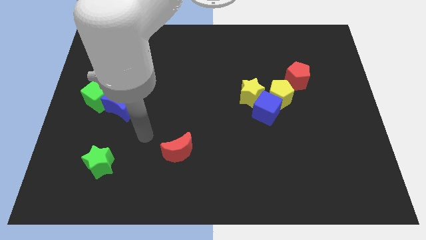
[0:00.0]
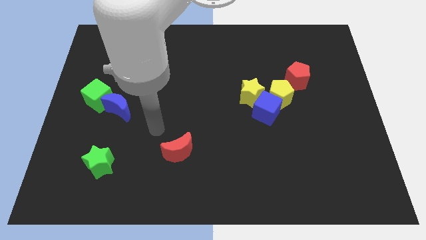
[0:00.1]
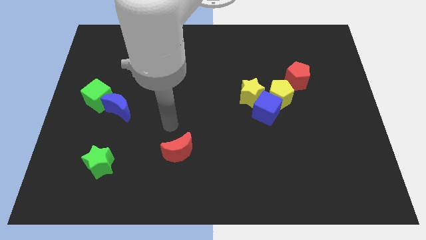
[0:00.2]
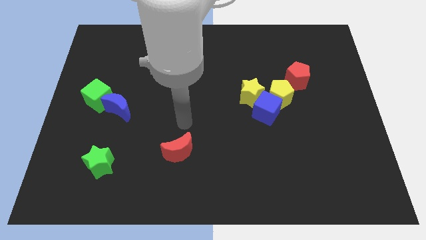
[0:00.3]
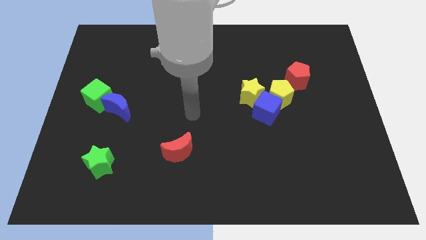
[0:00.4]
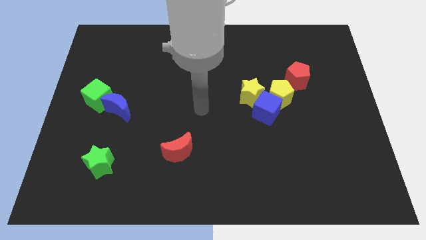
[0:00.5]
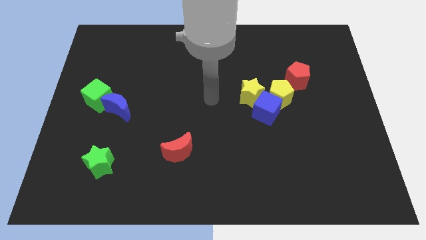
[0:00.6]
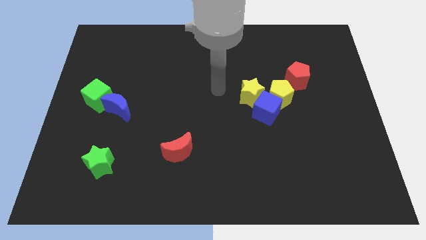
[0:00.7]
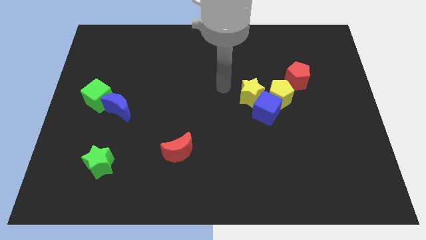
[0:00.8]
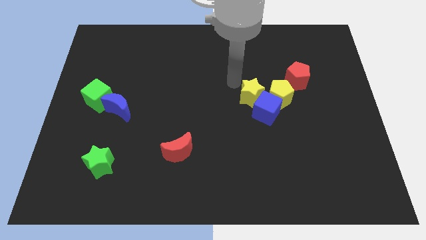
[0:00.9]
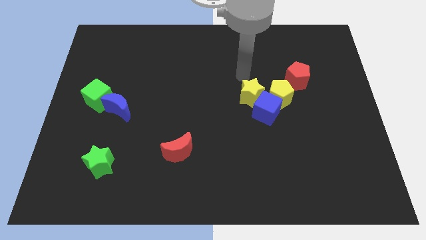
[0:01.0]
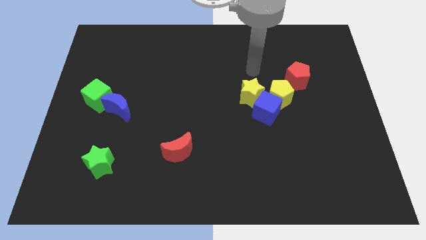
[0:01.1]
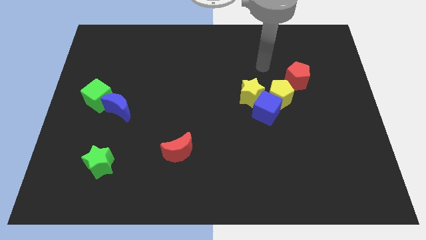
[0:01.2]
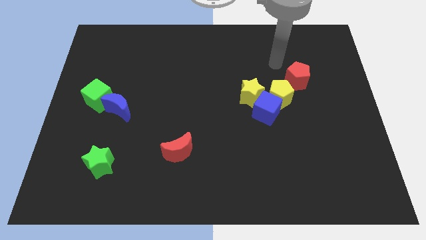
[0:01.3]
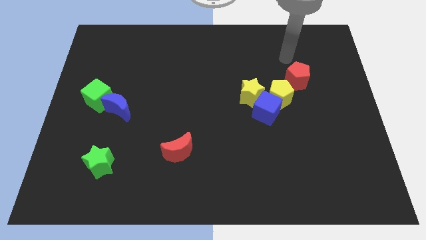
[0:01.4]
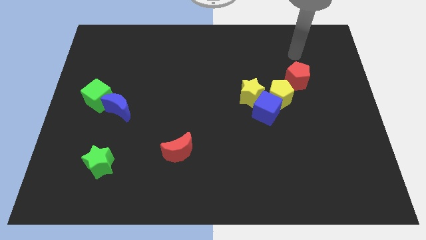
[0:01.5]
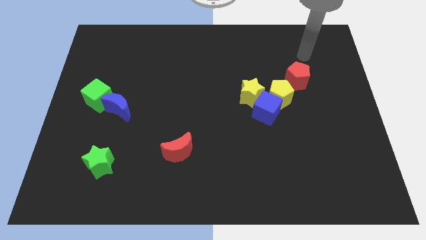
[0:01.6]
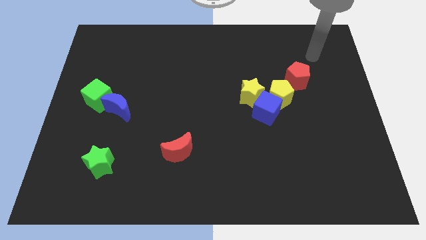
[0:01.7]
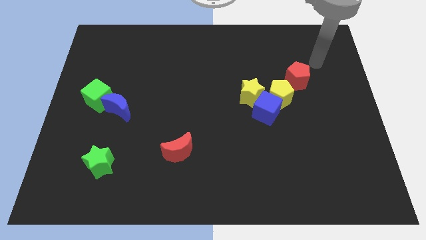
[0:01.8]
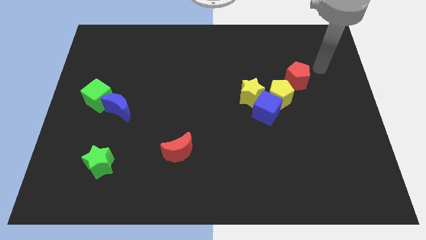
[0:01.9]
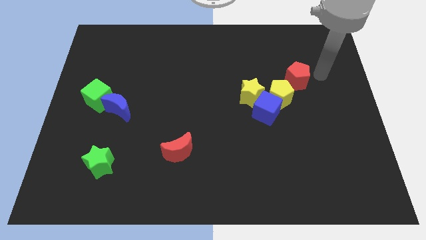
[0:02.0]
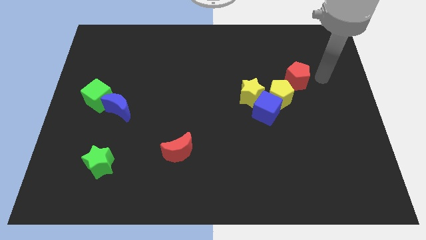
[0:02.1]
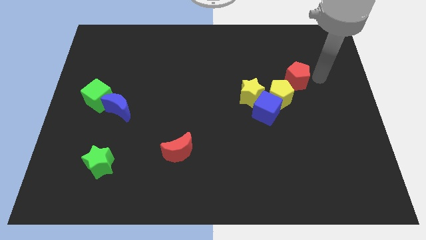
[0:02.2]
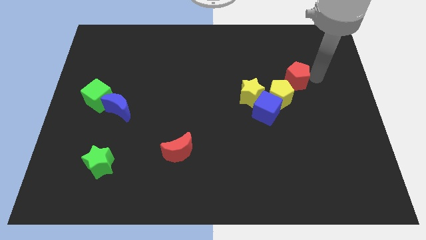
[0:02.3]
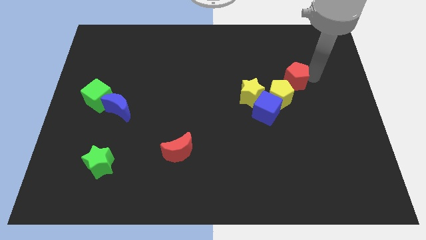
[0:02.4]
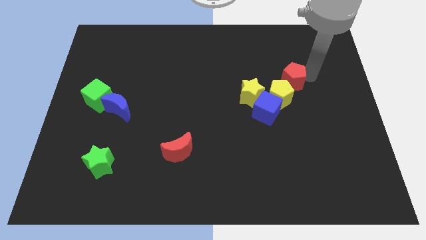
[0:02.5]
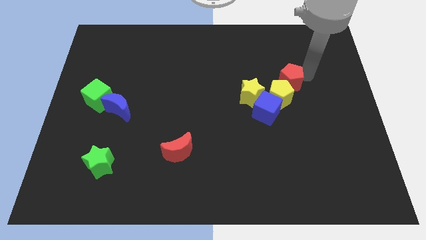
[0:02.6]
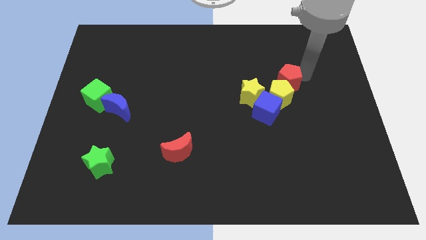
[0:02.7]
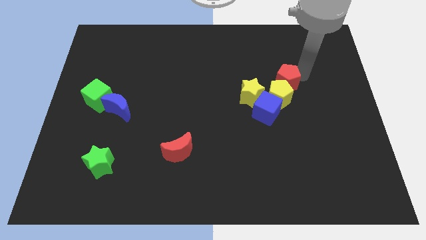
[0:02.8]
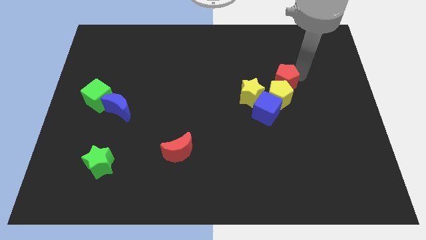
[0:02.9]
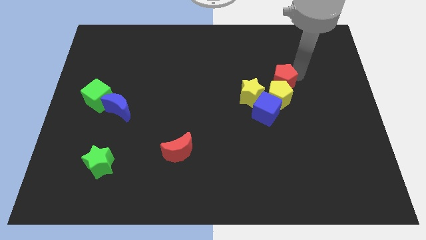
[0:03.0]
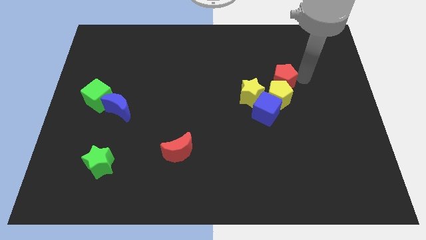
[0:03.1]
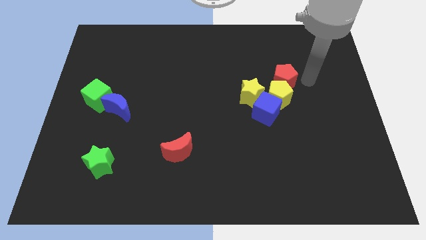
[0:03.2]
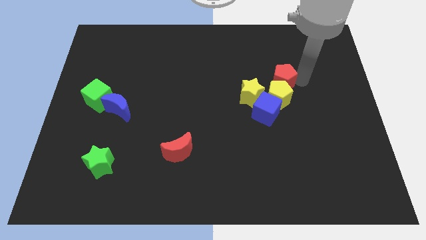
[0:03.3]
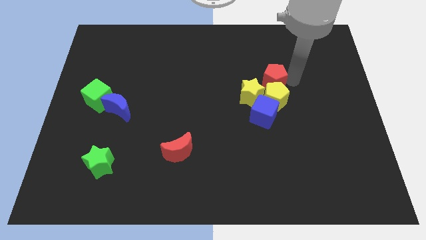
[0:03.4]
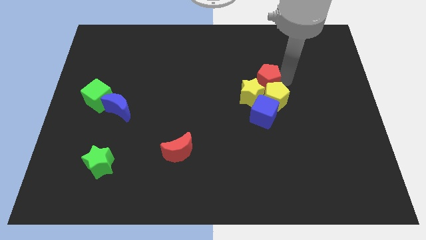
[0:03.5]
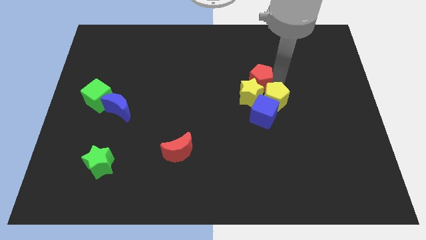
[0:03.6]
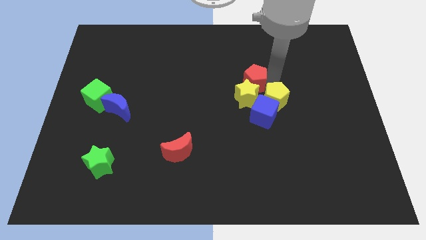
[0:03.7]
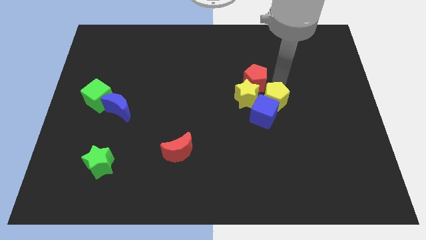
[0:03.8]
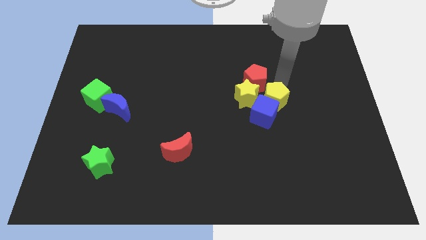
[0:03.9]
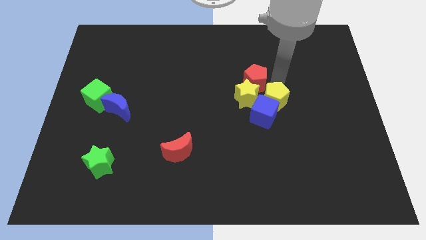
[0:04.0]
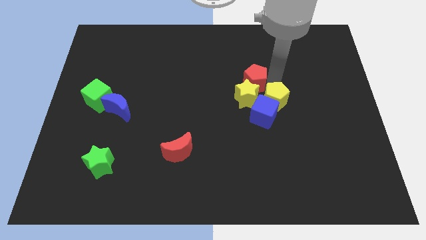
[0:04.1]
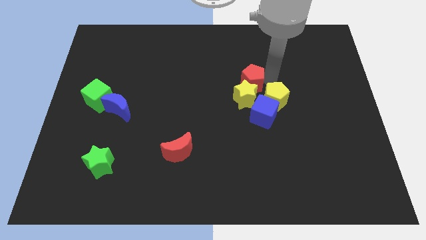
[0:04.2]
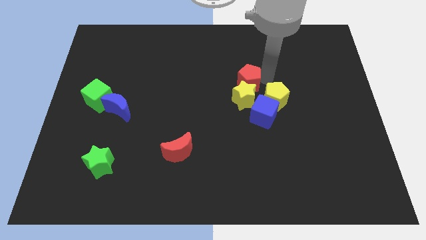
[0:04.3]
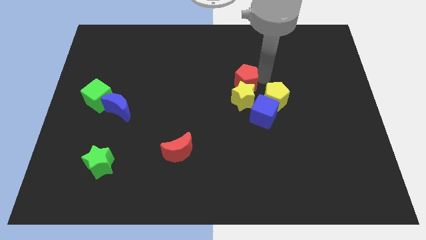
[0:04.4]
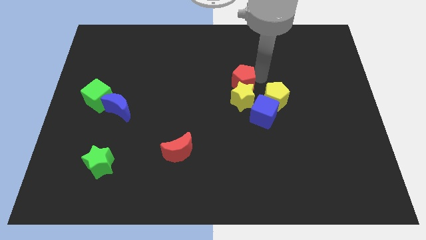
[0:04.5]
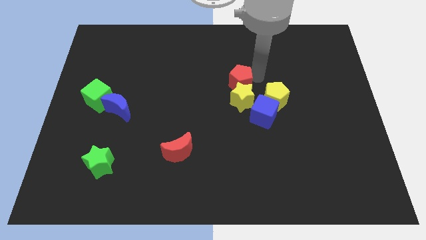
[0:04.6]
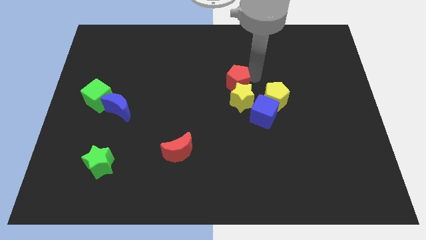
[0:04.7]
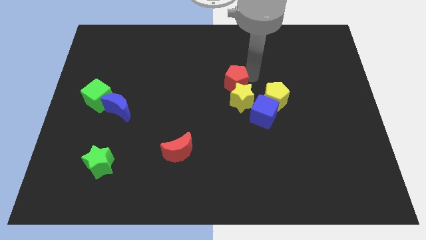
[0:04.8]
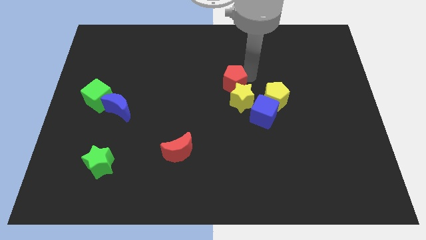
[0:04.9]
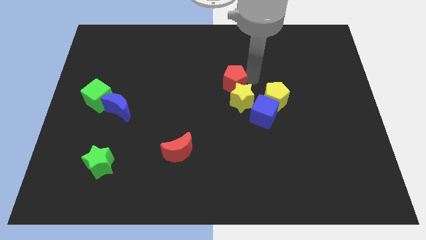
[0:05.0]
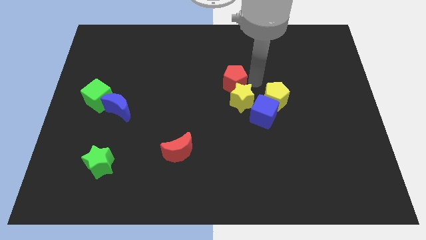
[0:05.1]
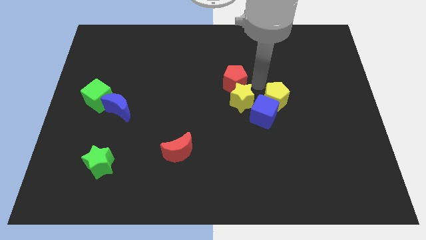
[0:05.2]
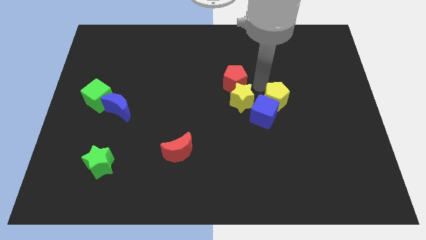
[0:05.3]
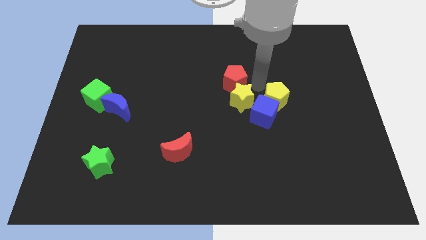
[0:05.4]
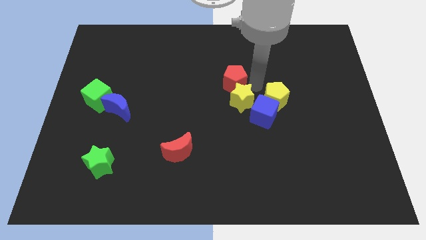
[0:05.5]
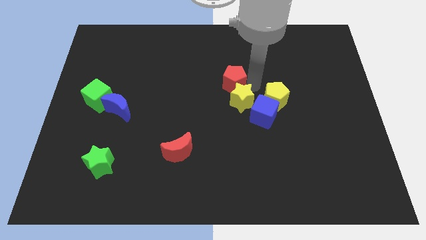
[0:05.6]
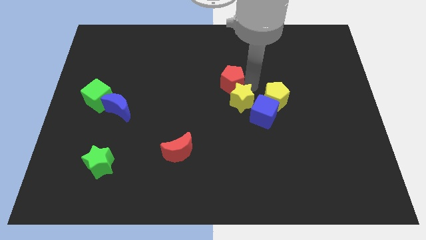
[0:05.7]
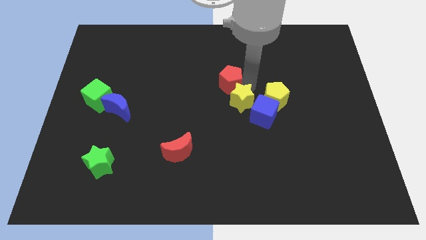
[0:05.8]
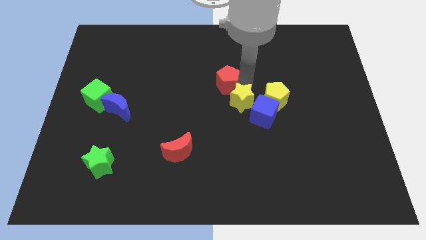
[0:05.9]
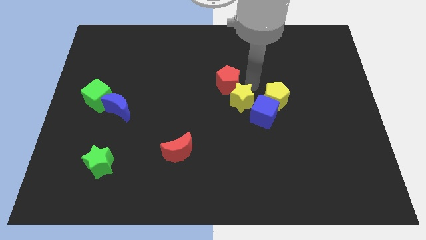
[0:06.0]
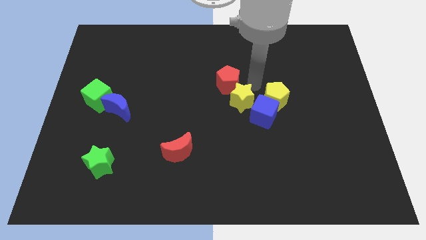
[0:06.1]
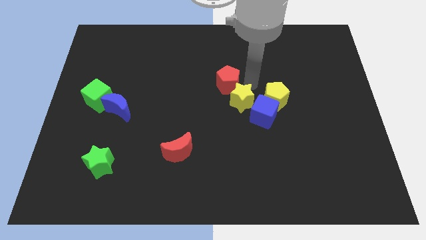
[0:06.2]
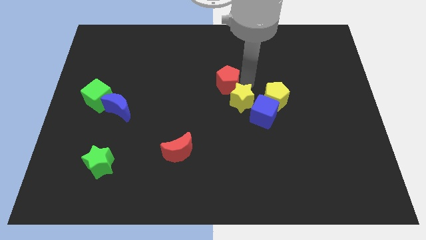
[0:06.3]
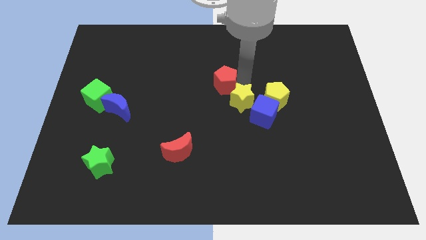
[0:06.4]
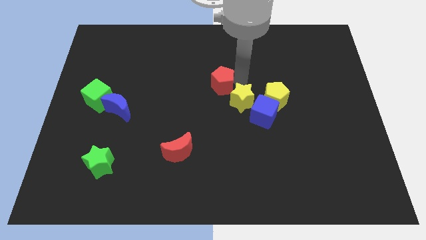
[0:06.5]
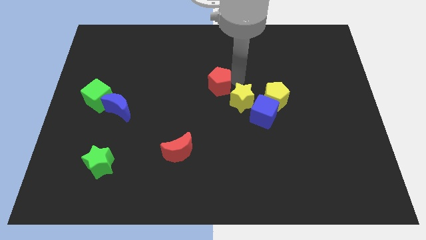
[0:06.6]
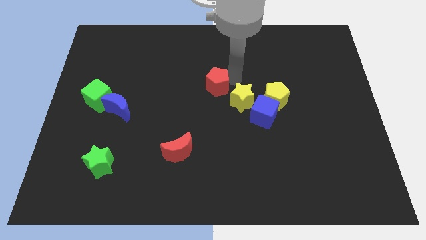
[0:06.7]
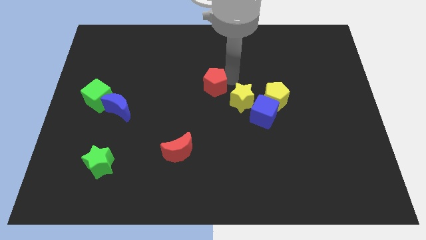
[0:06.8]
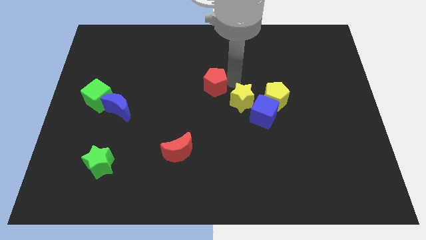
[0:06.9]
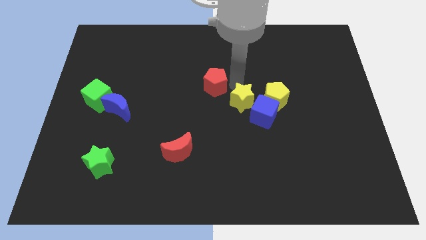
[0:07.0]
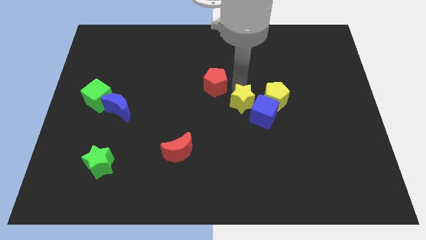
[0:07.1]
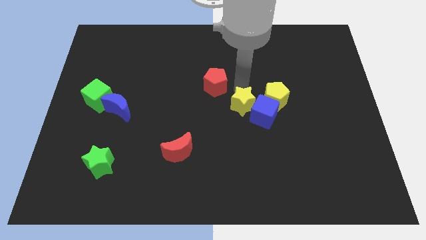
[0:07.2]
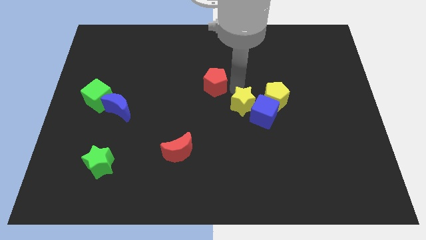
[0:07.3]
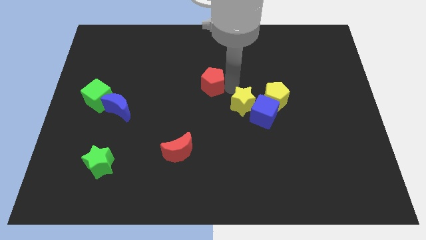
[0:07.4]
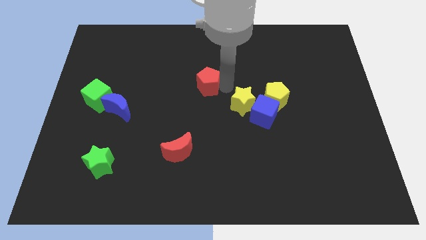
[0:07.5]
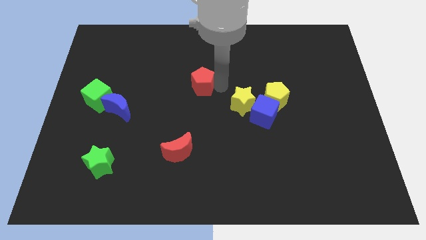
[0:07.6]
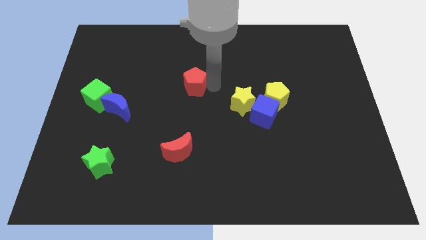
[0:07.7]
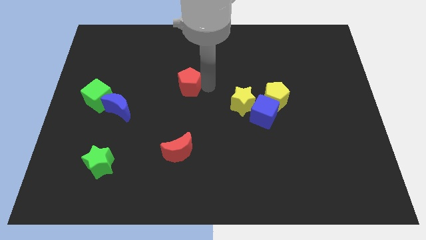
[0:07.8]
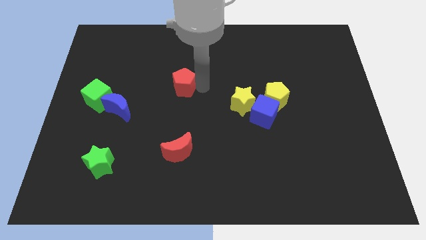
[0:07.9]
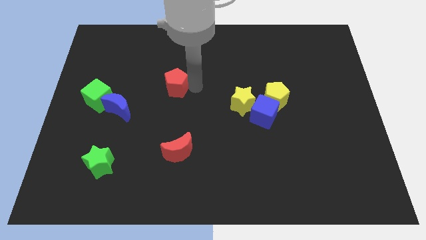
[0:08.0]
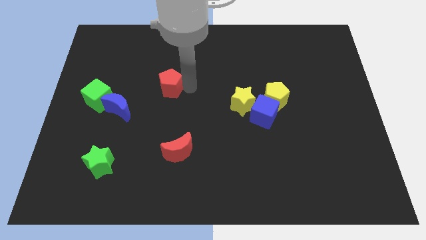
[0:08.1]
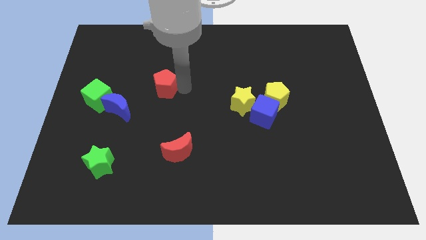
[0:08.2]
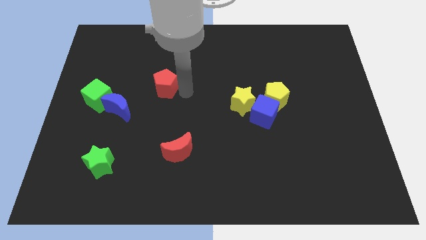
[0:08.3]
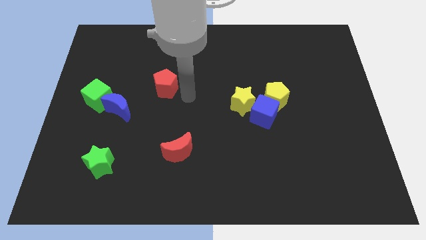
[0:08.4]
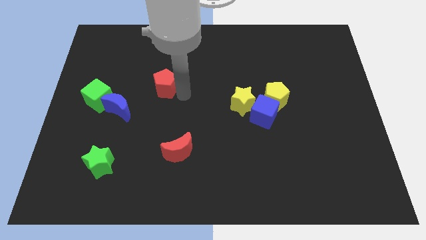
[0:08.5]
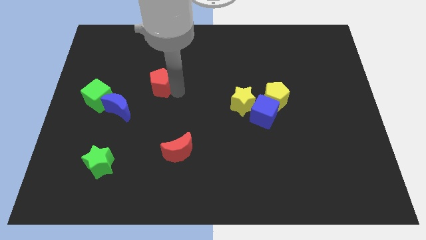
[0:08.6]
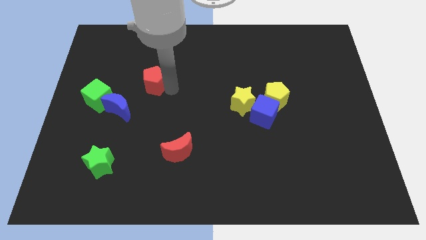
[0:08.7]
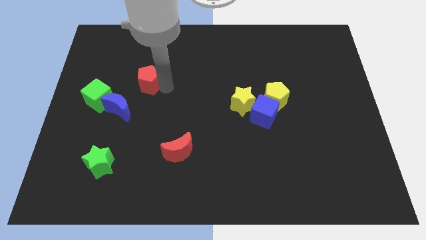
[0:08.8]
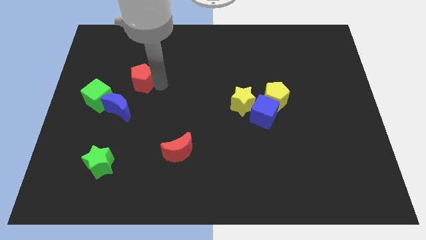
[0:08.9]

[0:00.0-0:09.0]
put the red pentagon to the top right side of the green cube
